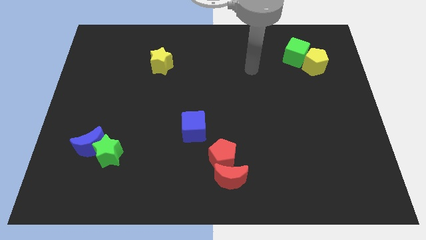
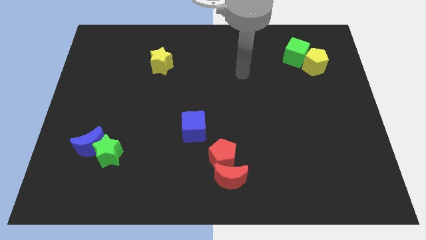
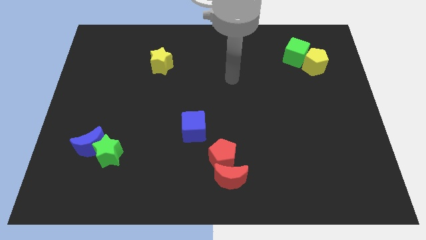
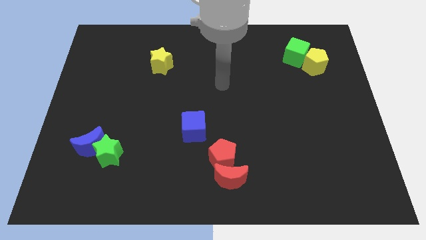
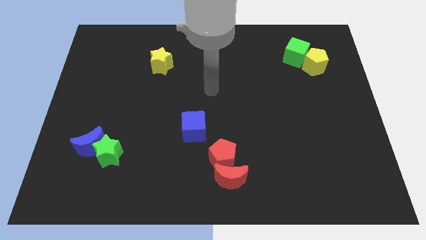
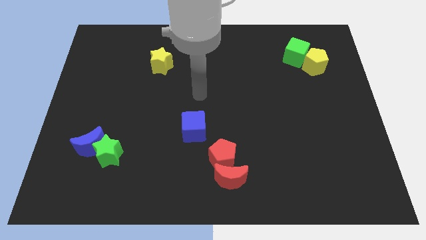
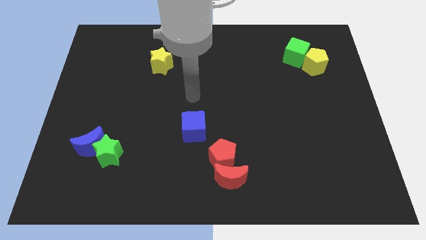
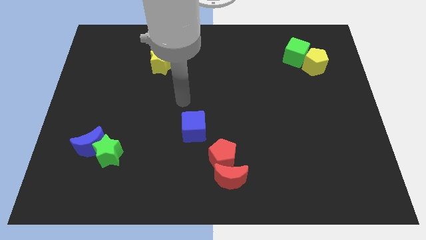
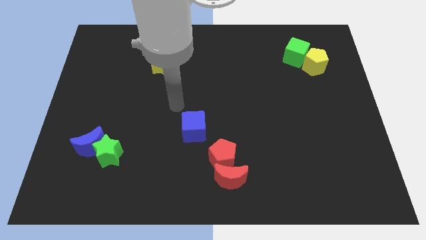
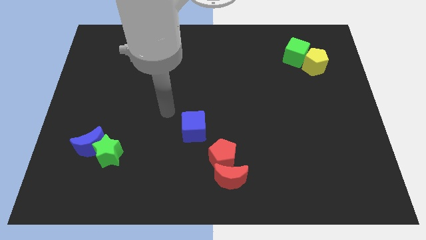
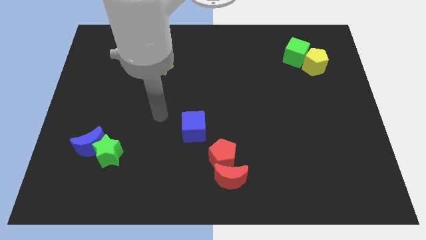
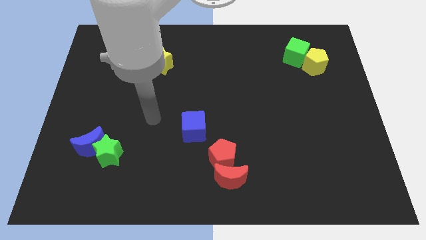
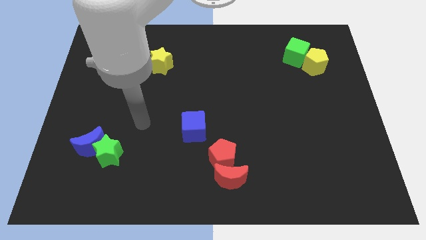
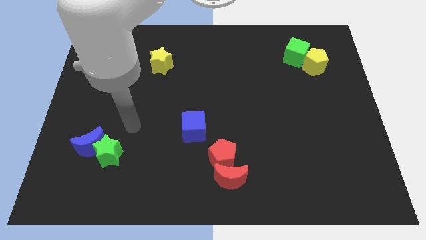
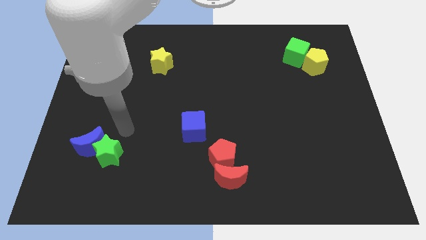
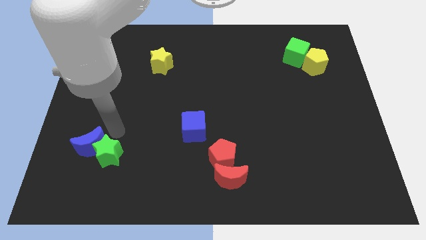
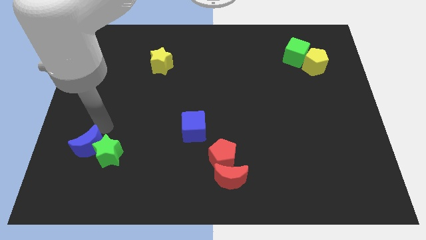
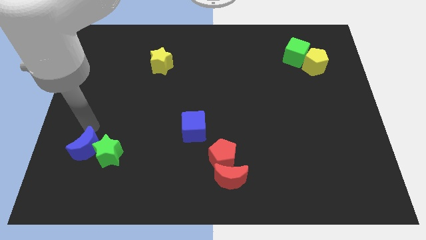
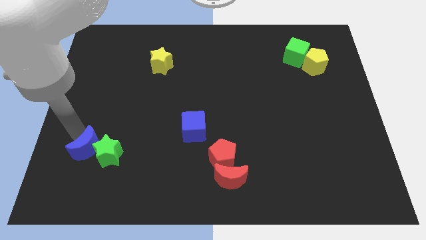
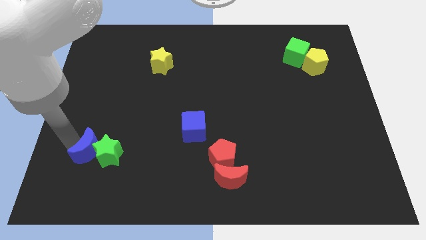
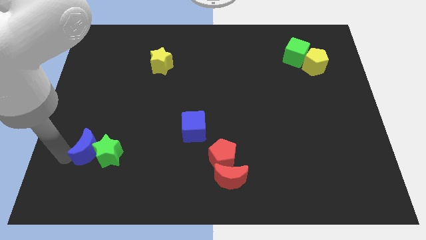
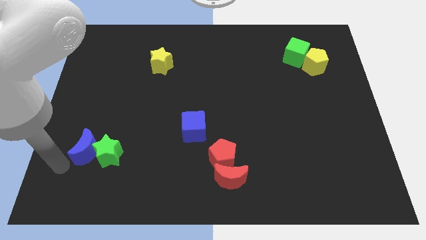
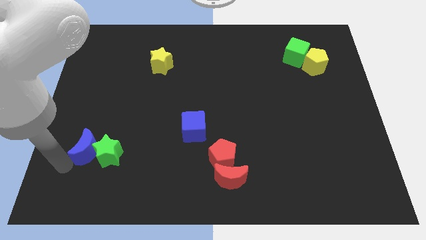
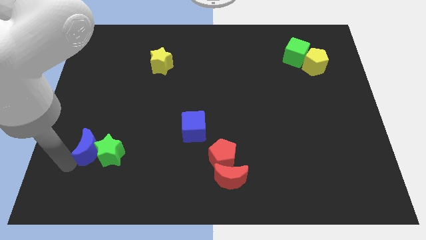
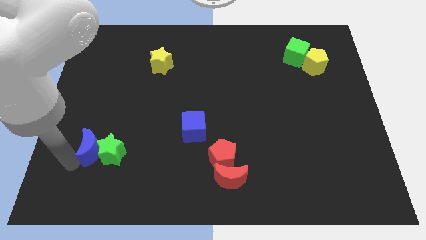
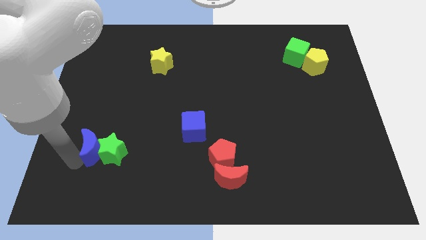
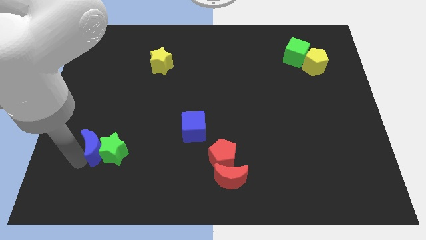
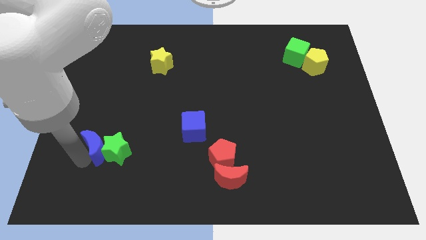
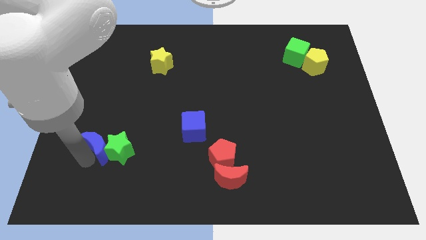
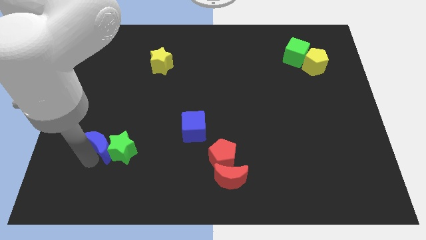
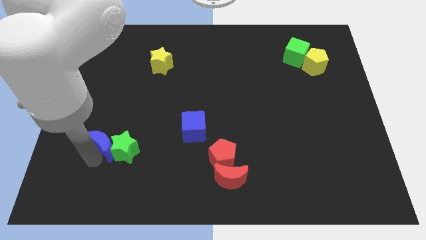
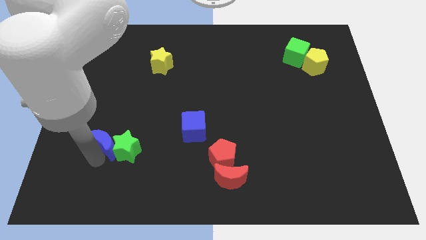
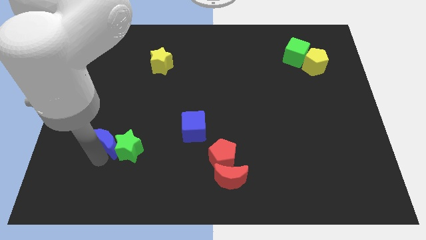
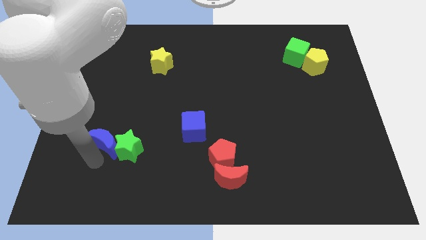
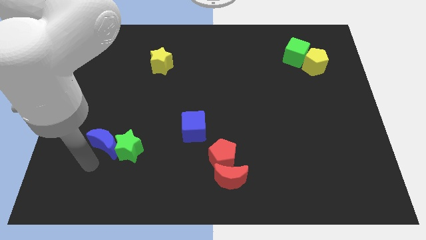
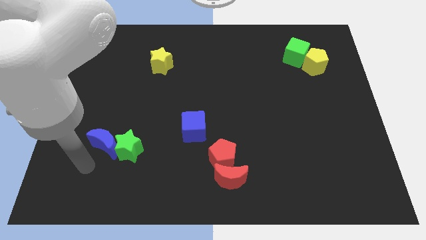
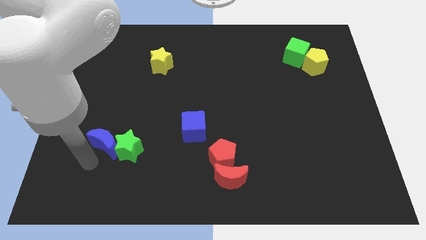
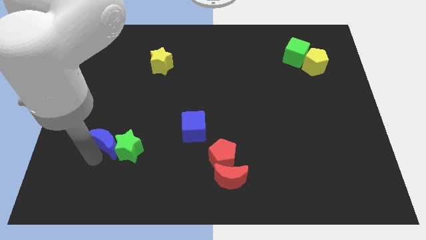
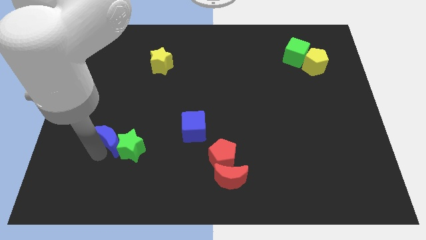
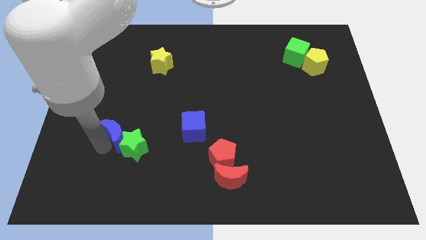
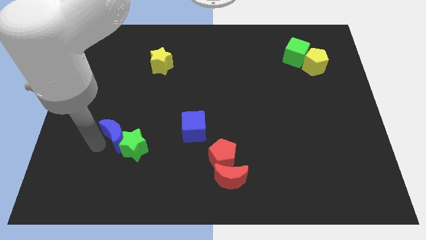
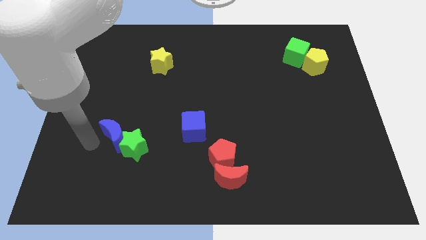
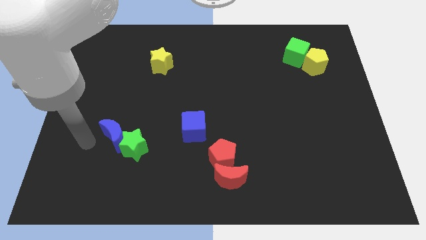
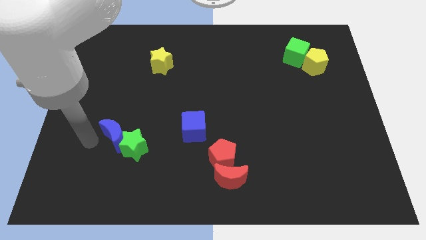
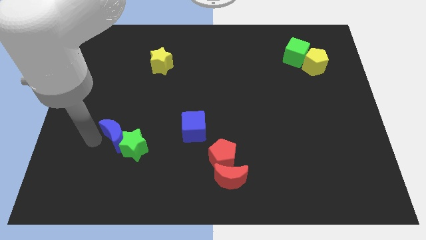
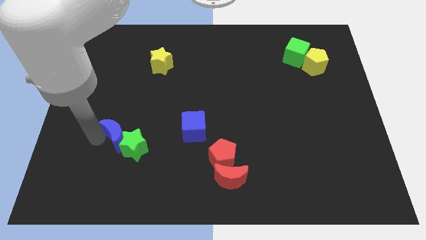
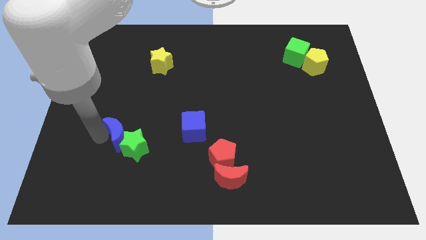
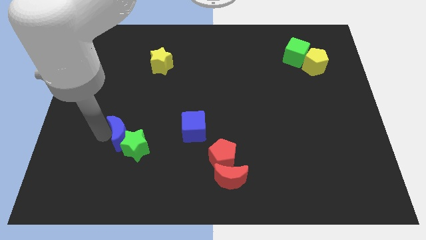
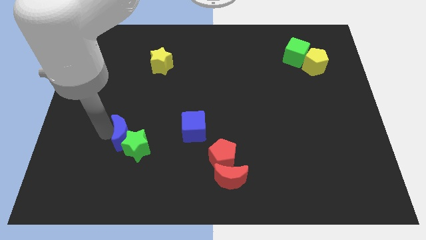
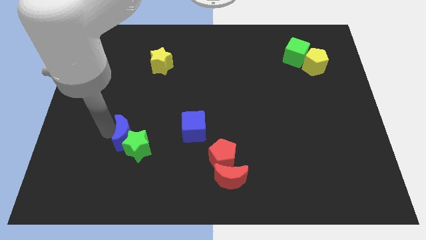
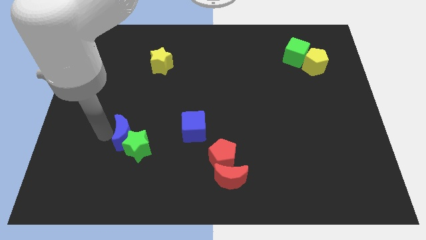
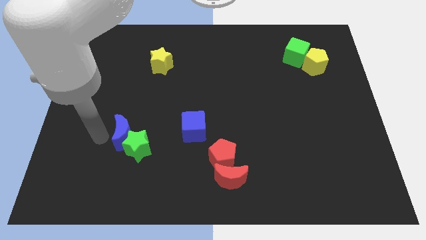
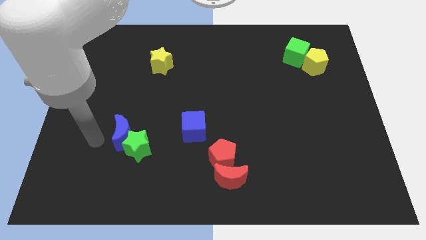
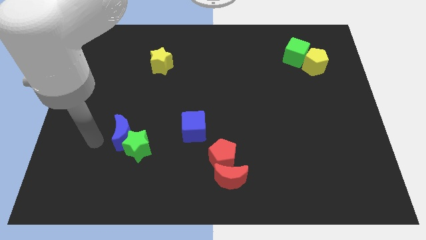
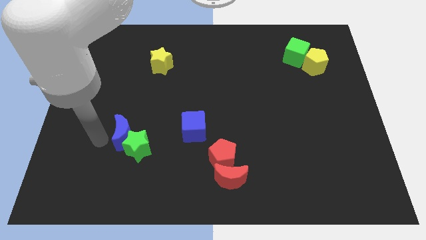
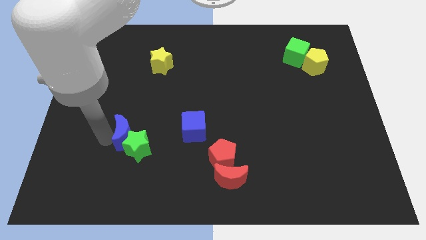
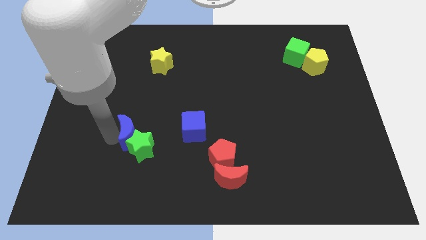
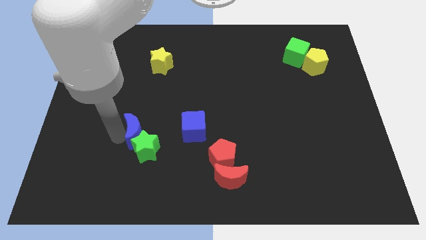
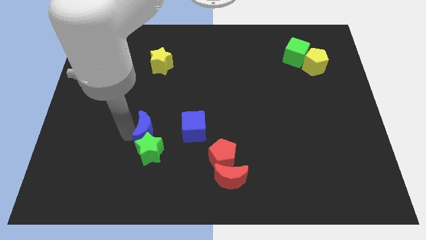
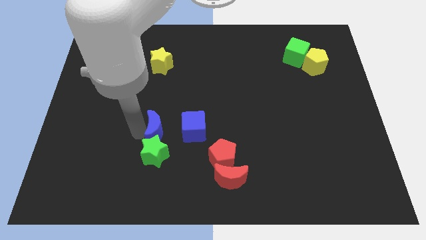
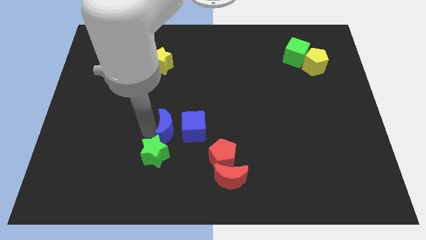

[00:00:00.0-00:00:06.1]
move the blue moon to the blue cube

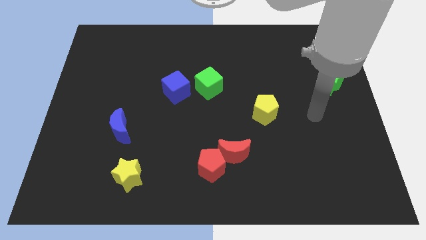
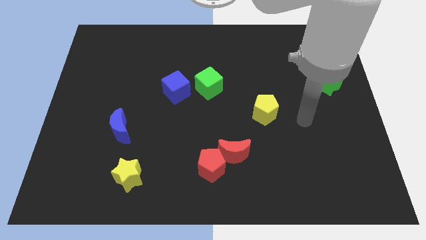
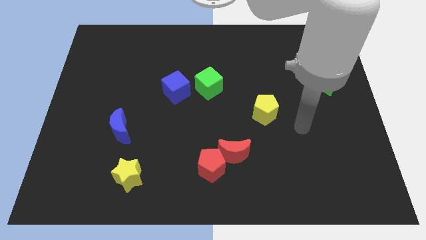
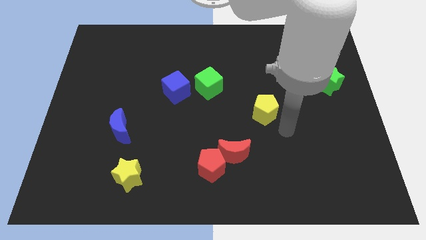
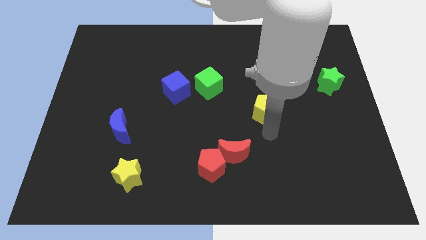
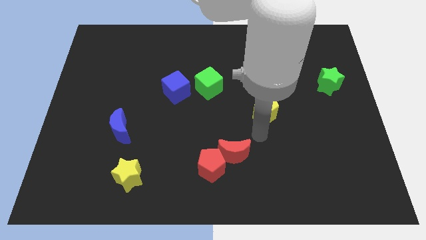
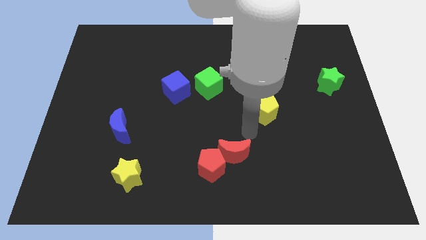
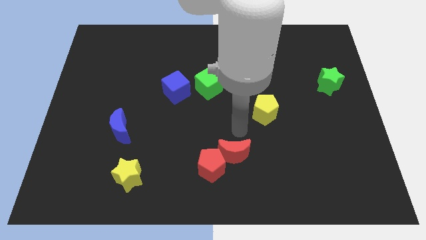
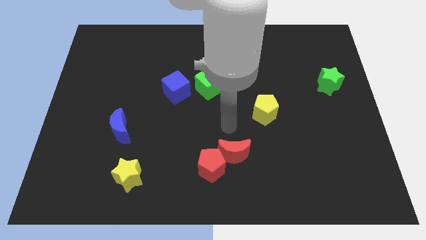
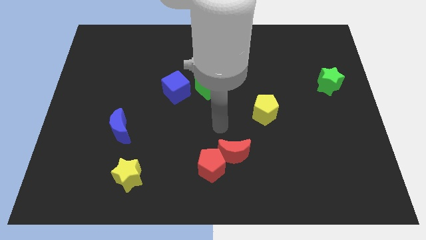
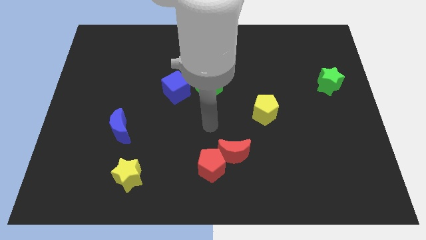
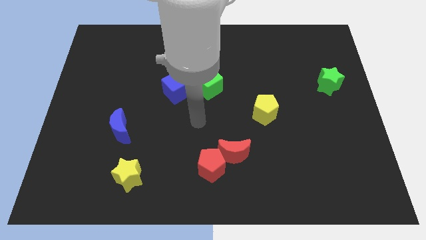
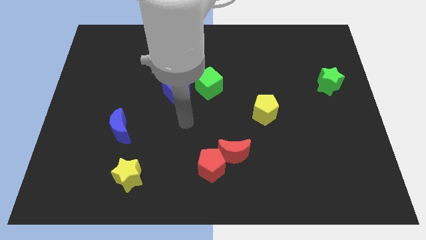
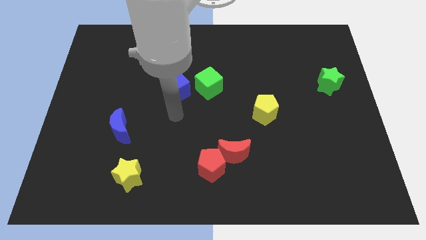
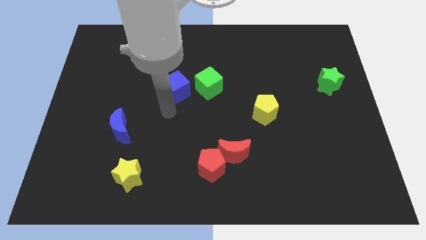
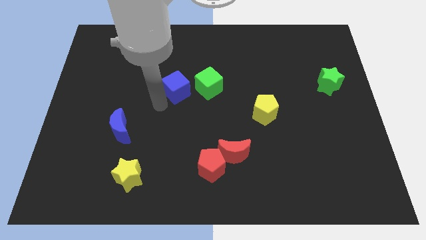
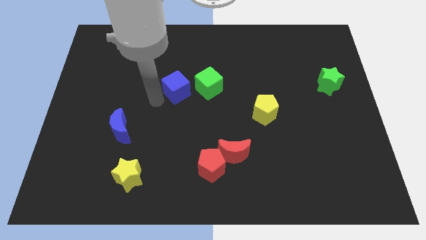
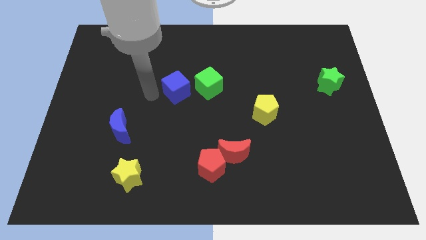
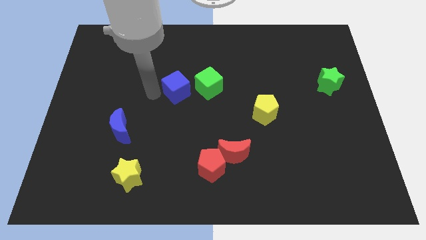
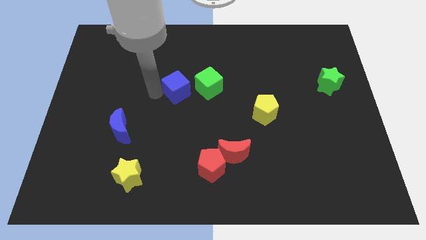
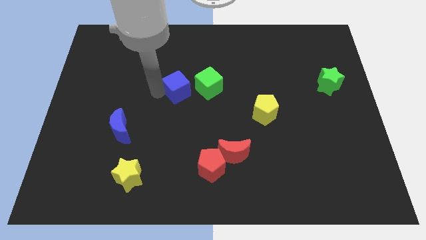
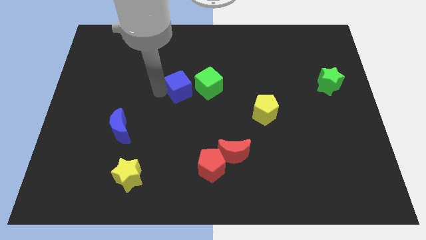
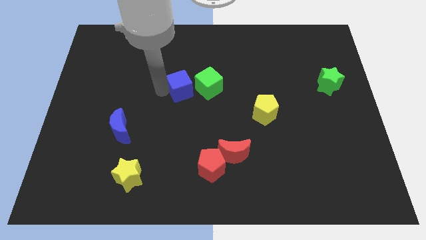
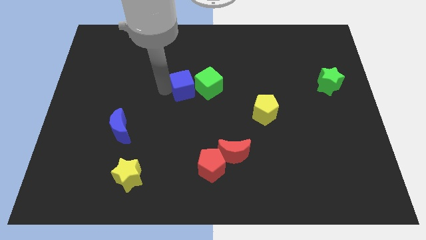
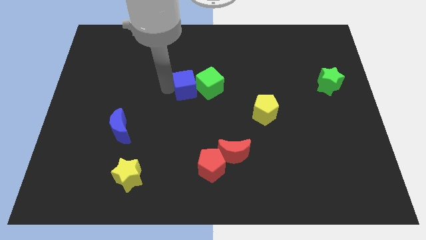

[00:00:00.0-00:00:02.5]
push the blue cube towards the green cube
